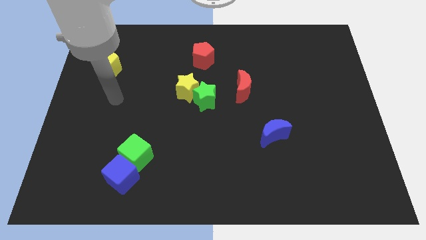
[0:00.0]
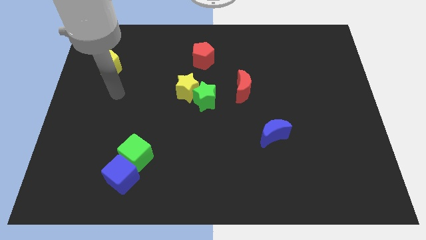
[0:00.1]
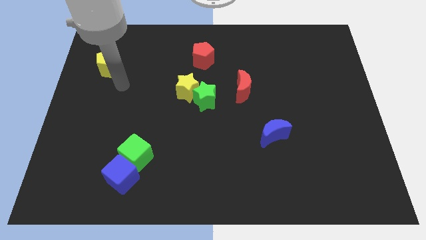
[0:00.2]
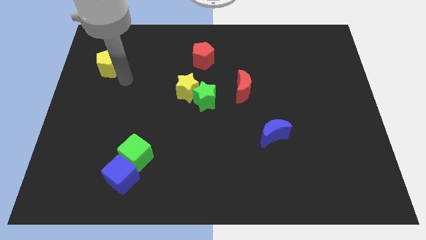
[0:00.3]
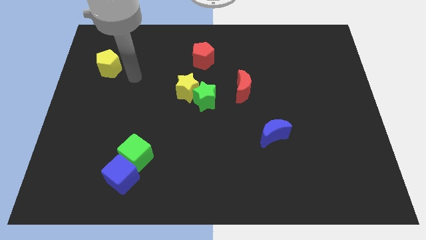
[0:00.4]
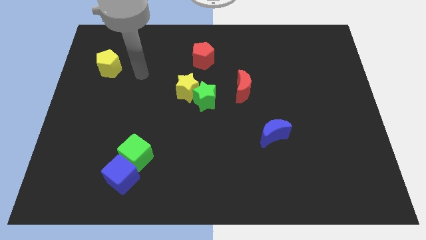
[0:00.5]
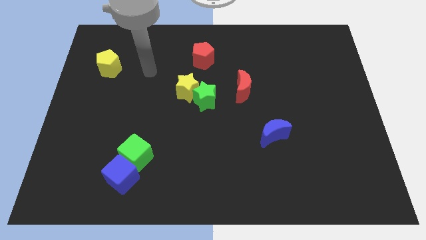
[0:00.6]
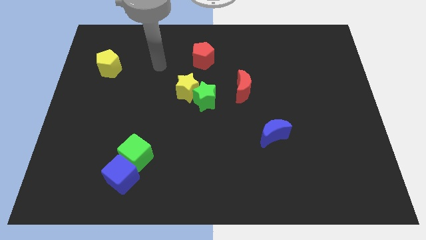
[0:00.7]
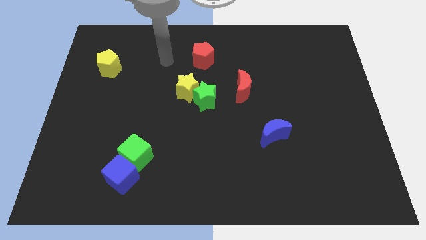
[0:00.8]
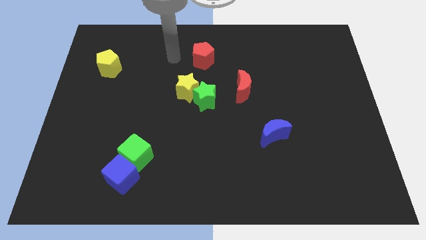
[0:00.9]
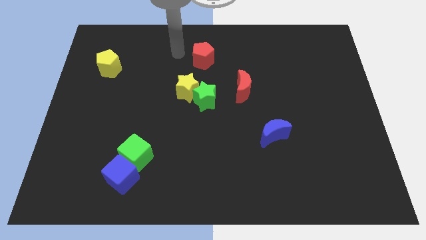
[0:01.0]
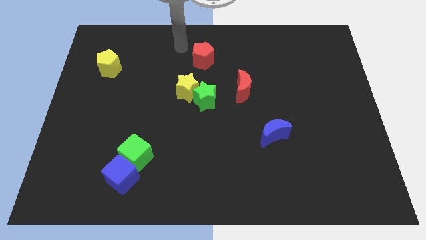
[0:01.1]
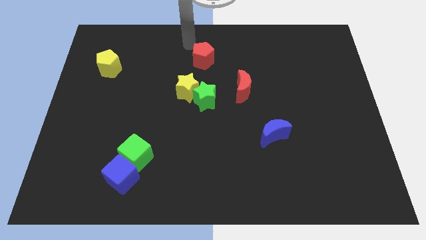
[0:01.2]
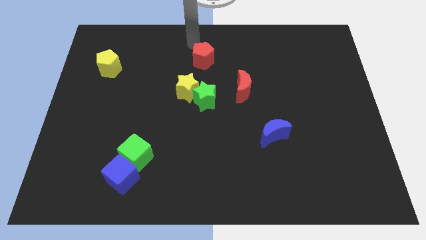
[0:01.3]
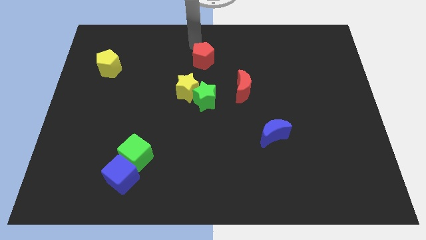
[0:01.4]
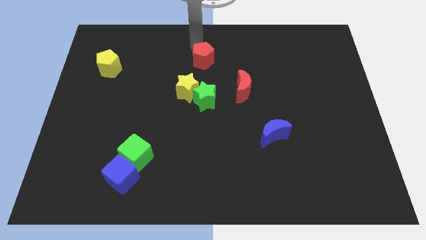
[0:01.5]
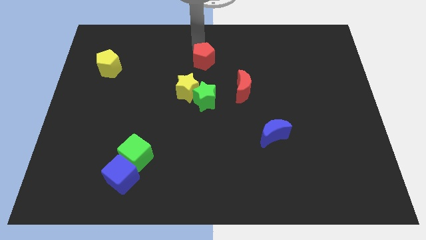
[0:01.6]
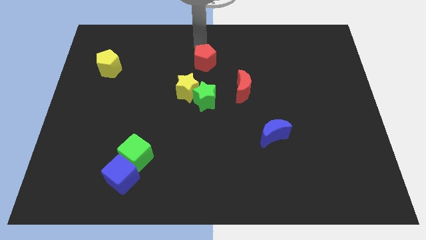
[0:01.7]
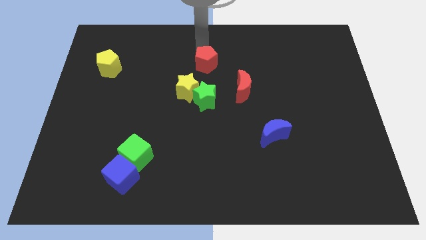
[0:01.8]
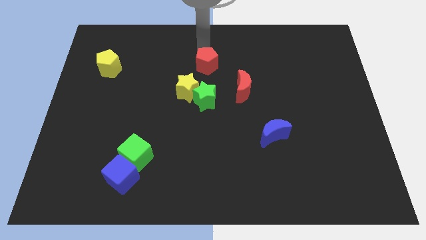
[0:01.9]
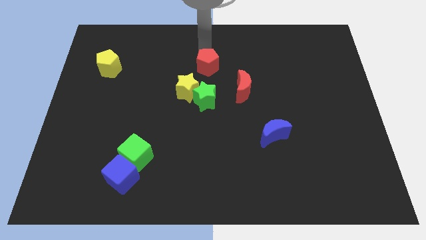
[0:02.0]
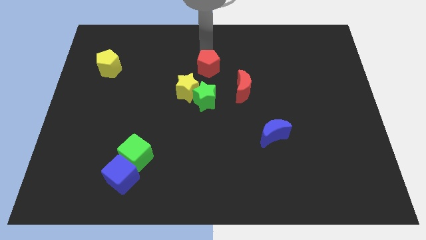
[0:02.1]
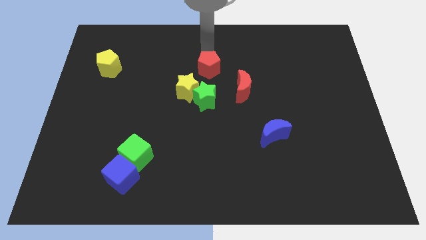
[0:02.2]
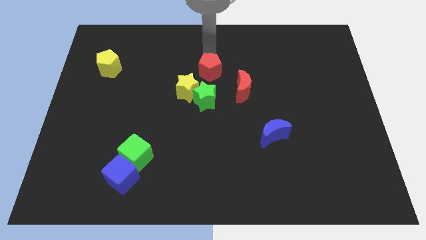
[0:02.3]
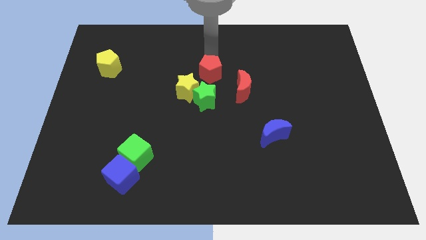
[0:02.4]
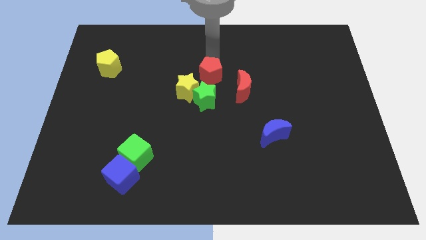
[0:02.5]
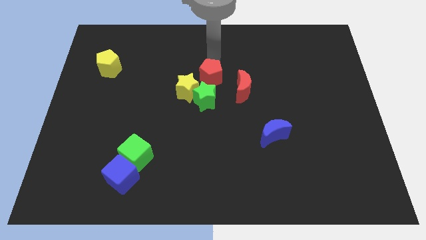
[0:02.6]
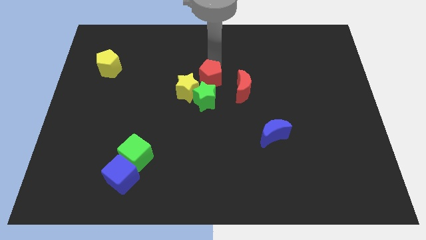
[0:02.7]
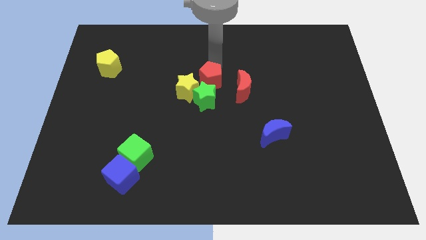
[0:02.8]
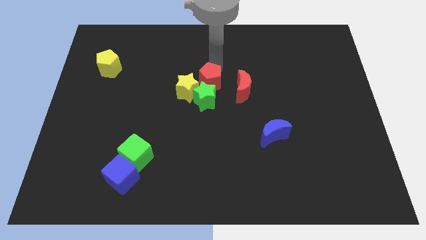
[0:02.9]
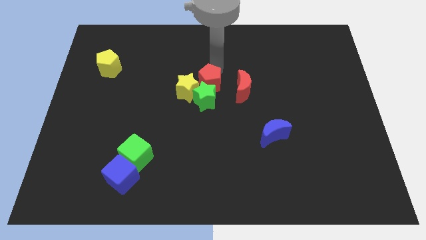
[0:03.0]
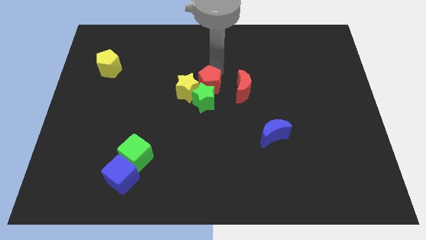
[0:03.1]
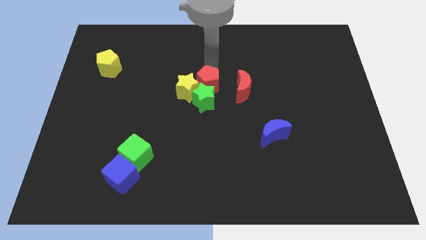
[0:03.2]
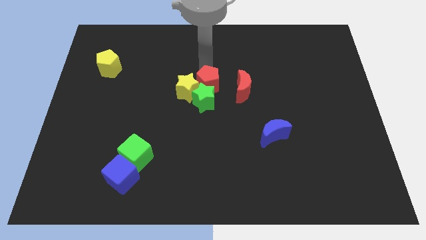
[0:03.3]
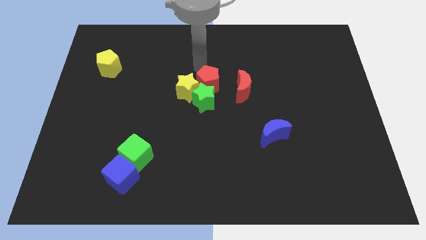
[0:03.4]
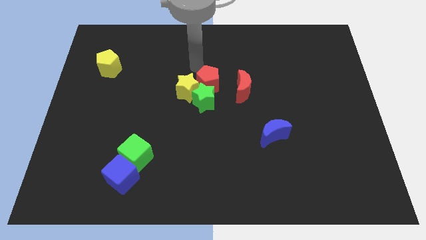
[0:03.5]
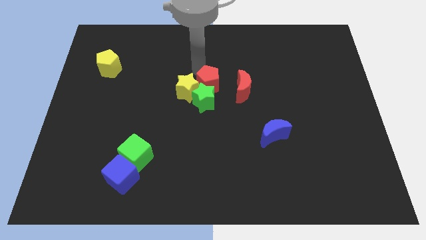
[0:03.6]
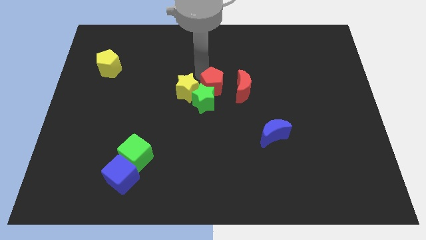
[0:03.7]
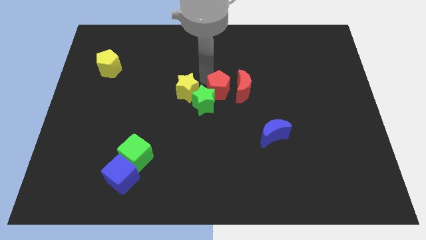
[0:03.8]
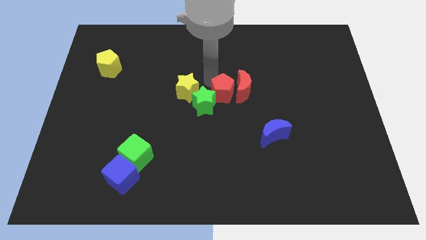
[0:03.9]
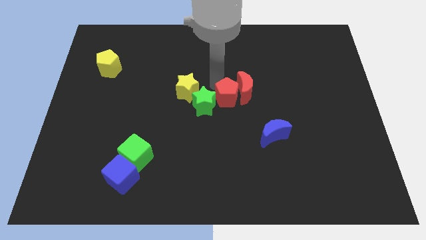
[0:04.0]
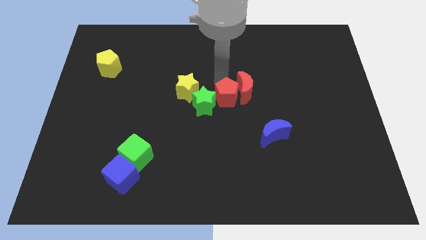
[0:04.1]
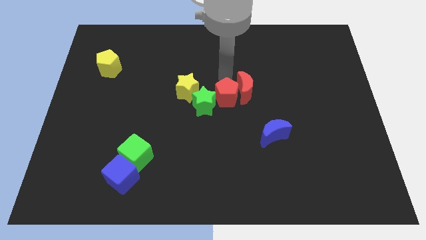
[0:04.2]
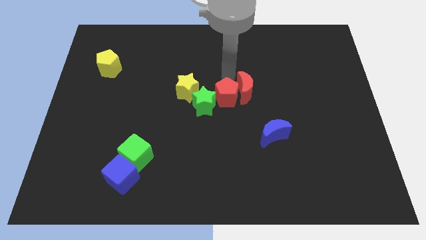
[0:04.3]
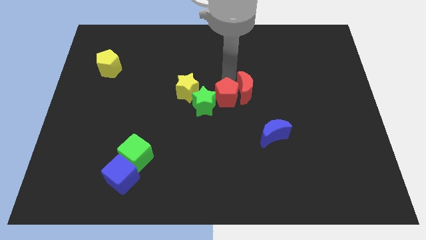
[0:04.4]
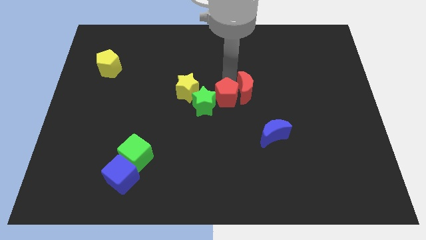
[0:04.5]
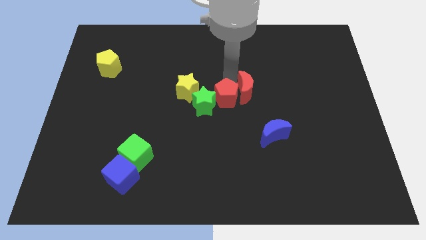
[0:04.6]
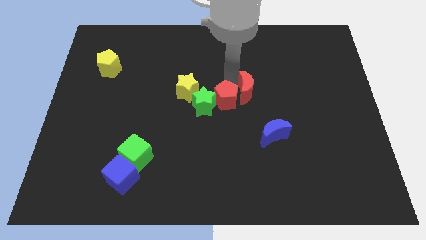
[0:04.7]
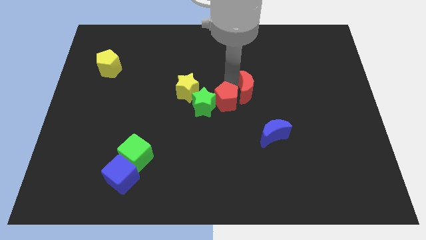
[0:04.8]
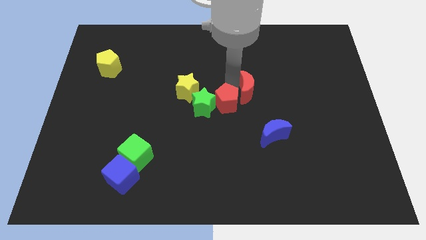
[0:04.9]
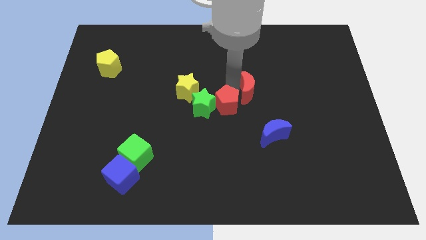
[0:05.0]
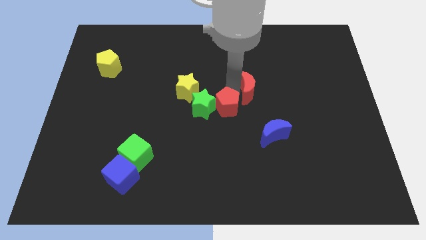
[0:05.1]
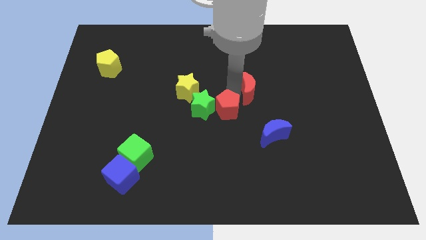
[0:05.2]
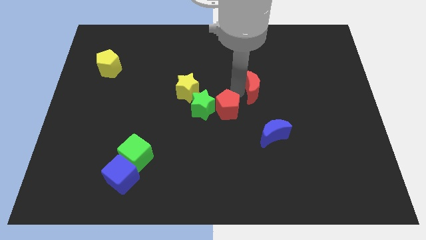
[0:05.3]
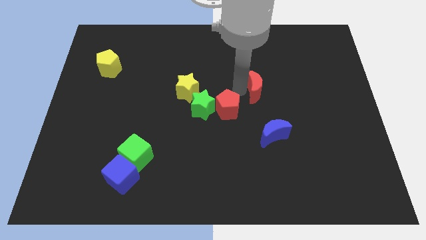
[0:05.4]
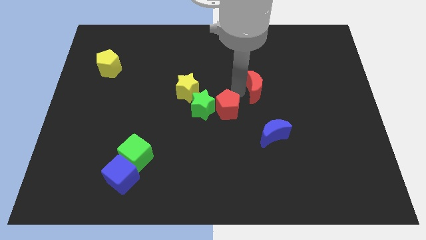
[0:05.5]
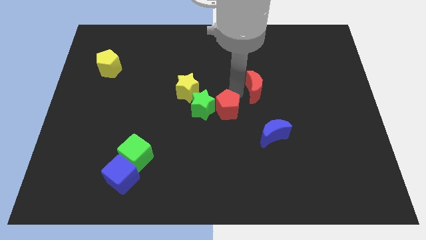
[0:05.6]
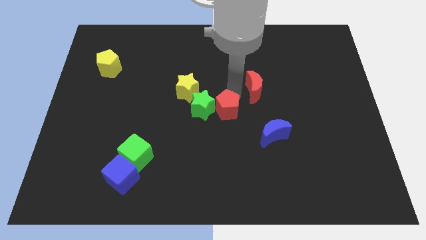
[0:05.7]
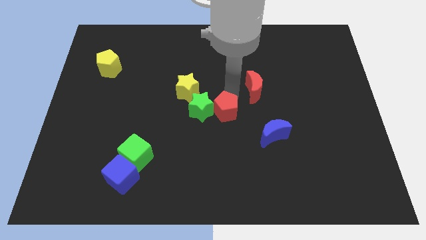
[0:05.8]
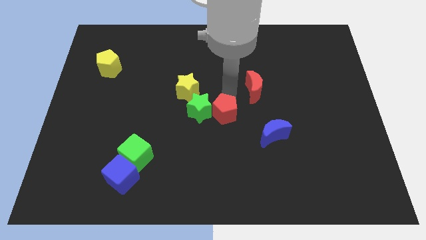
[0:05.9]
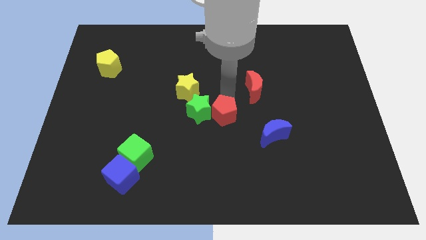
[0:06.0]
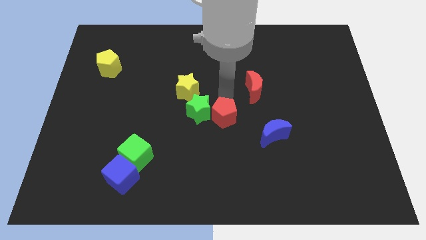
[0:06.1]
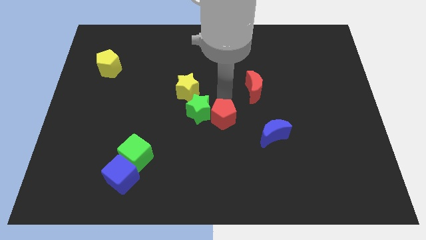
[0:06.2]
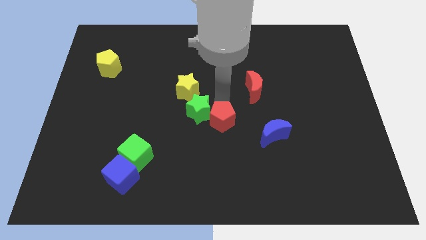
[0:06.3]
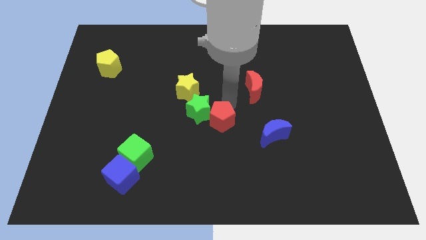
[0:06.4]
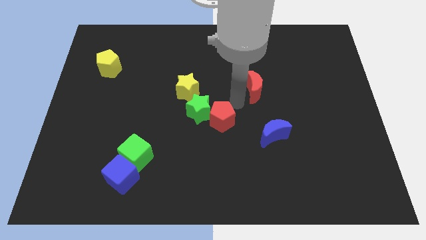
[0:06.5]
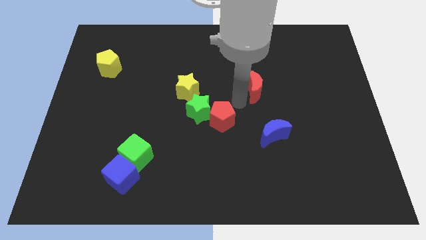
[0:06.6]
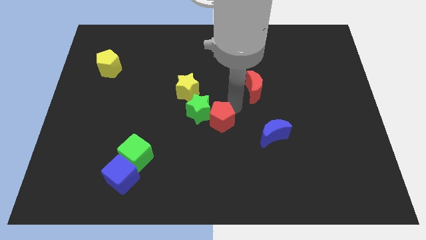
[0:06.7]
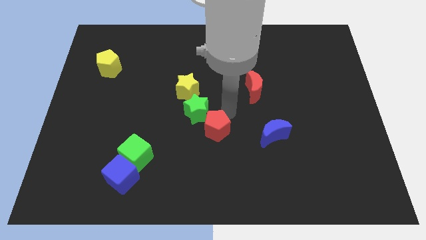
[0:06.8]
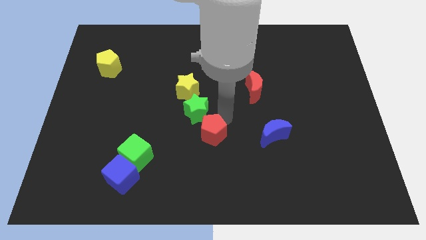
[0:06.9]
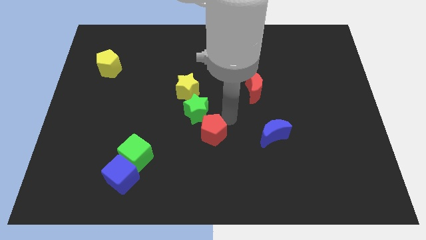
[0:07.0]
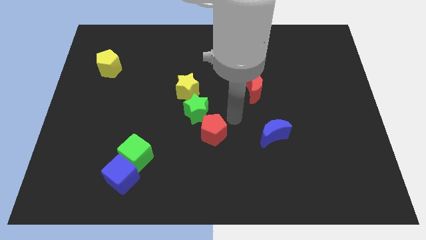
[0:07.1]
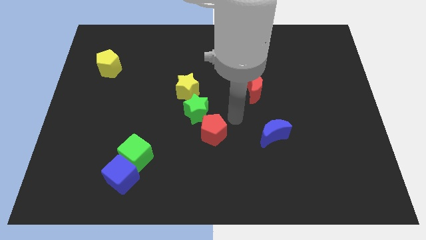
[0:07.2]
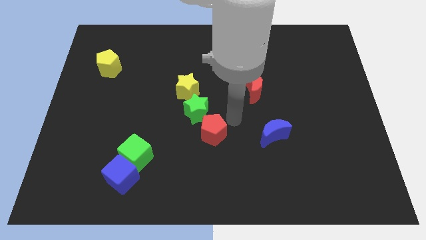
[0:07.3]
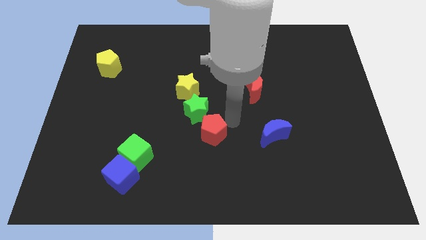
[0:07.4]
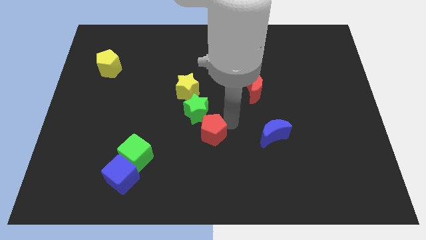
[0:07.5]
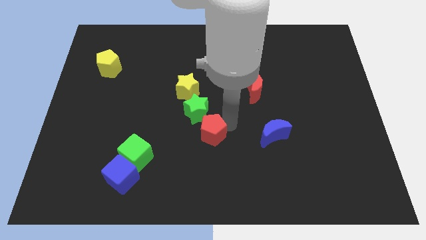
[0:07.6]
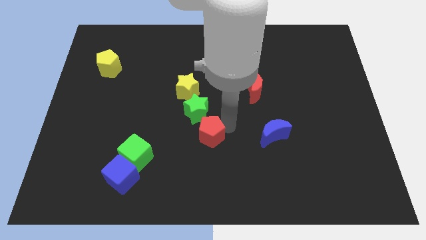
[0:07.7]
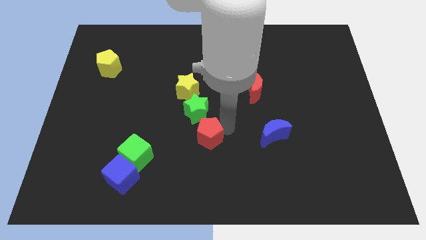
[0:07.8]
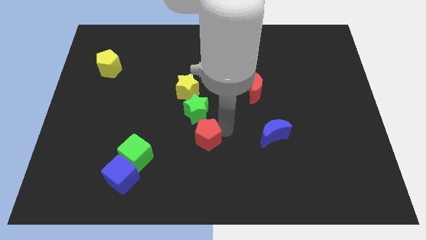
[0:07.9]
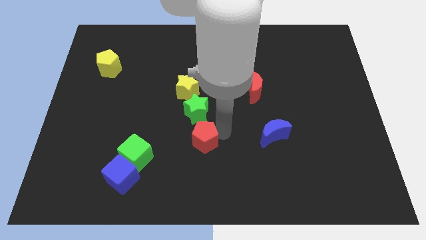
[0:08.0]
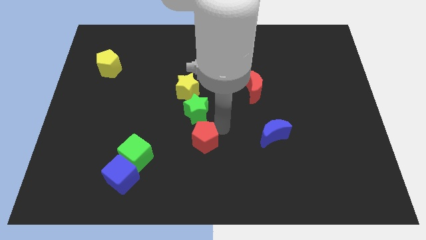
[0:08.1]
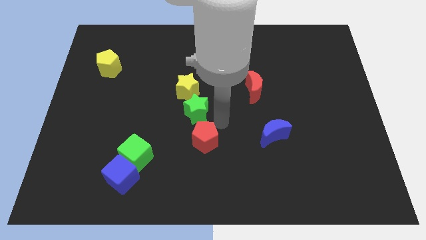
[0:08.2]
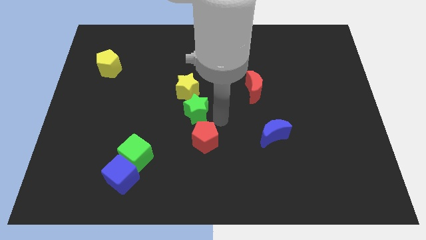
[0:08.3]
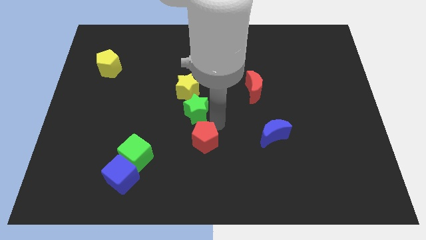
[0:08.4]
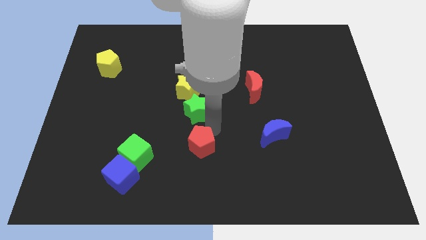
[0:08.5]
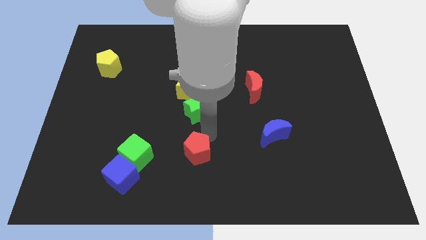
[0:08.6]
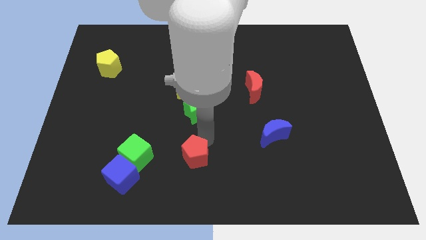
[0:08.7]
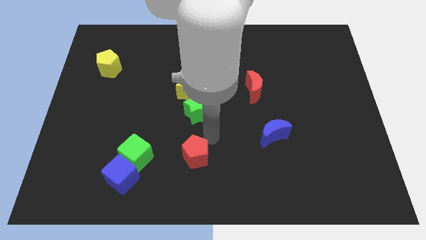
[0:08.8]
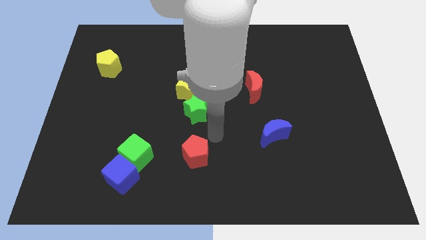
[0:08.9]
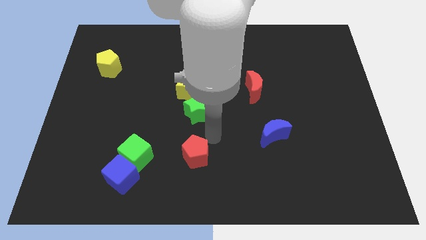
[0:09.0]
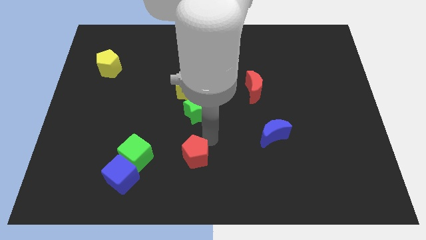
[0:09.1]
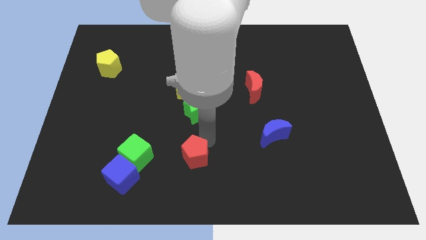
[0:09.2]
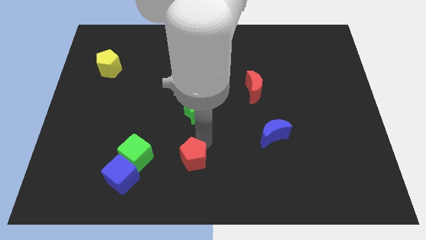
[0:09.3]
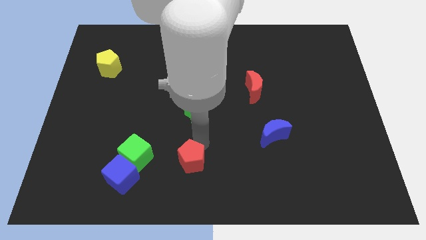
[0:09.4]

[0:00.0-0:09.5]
slide the red pentagon just right of the blue cube
